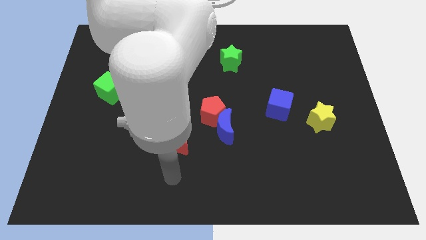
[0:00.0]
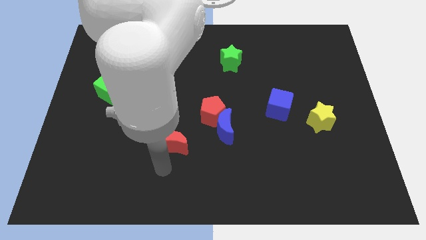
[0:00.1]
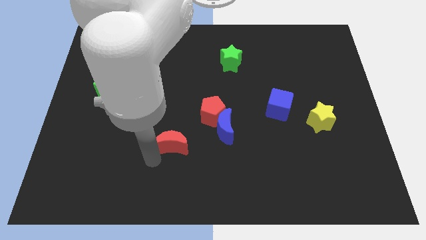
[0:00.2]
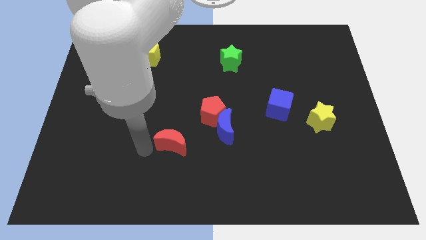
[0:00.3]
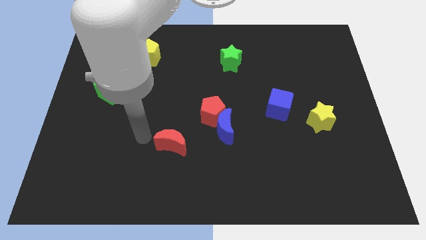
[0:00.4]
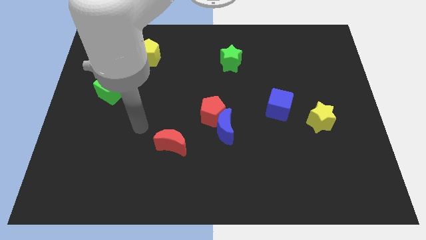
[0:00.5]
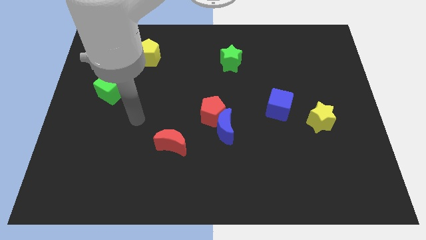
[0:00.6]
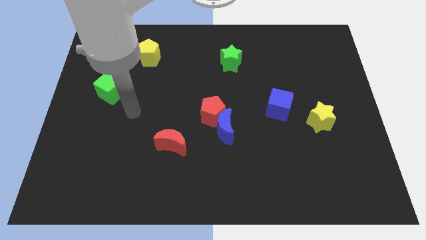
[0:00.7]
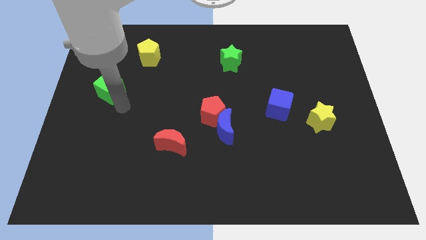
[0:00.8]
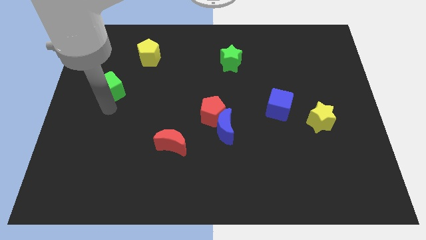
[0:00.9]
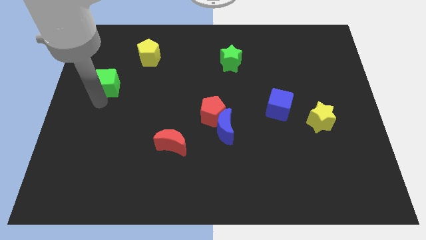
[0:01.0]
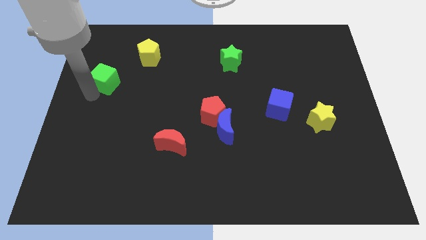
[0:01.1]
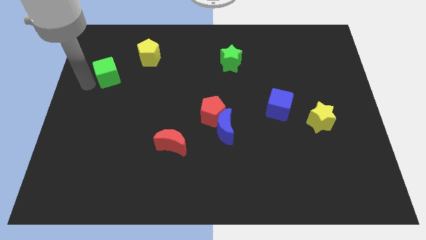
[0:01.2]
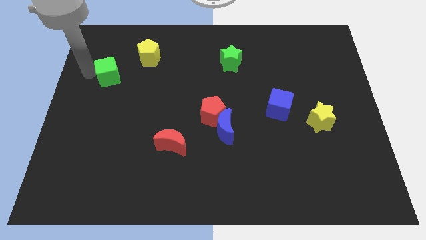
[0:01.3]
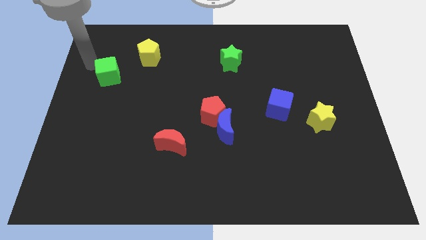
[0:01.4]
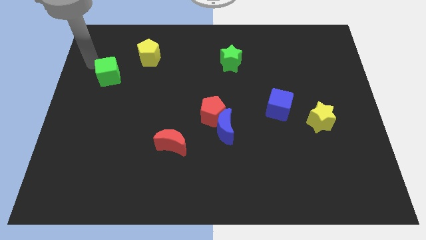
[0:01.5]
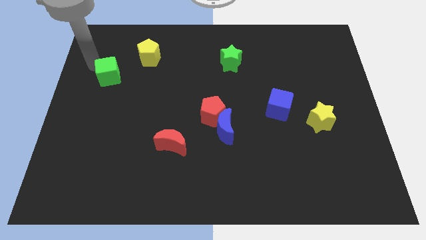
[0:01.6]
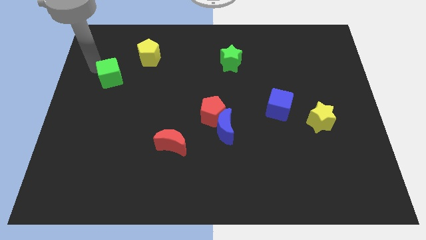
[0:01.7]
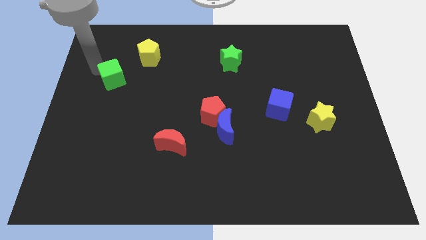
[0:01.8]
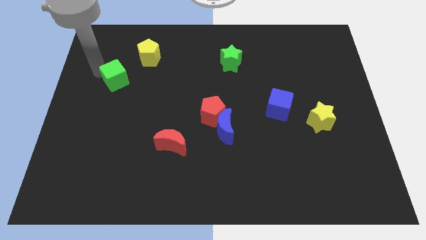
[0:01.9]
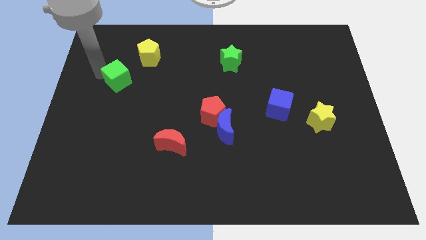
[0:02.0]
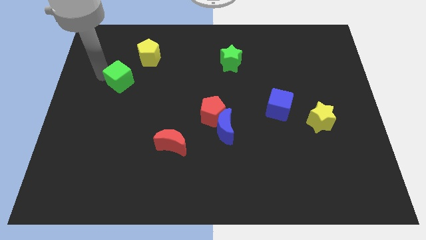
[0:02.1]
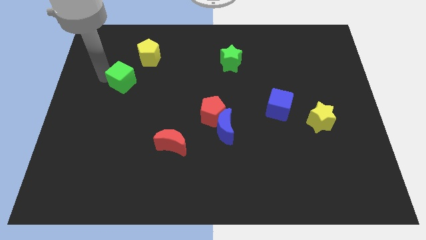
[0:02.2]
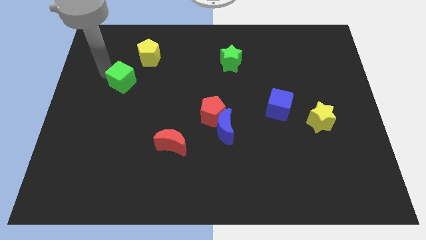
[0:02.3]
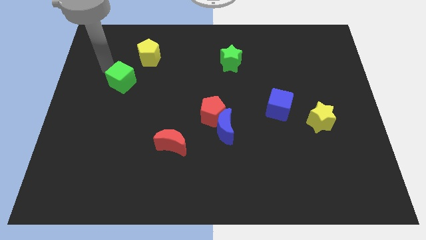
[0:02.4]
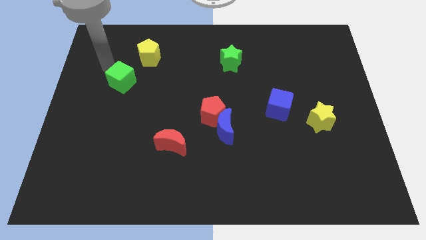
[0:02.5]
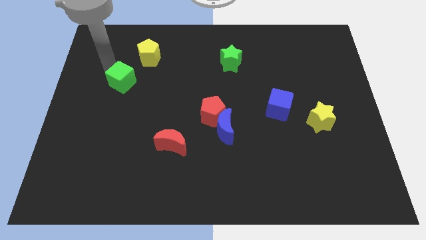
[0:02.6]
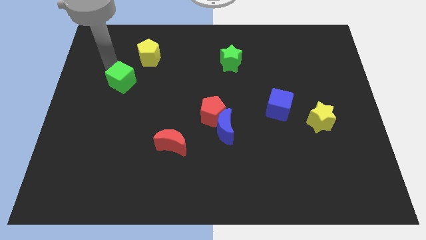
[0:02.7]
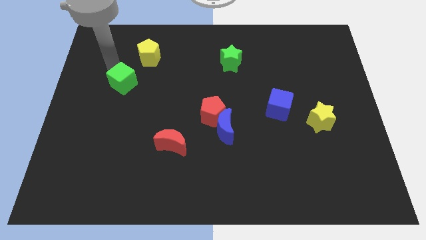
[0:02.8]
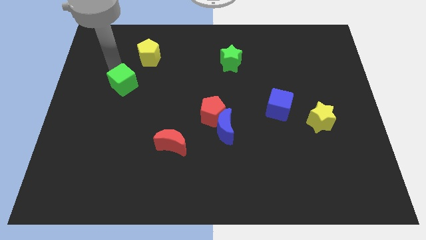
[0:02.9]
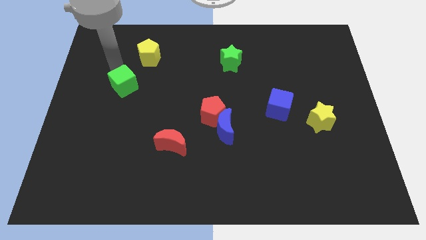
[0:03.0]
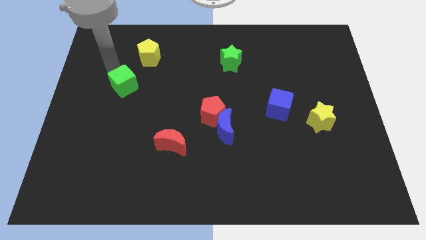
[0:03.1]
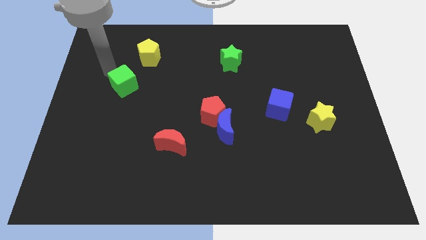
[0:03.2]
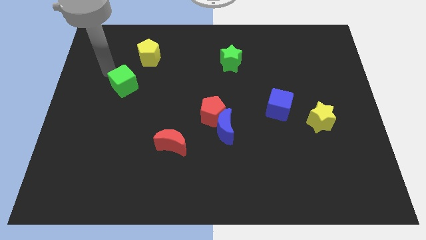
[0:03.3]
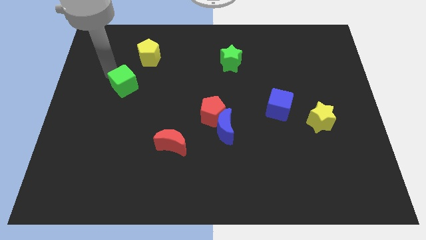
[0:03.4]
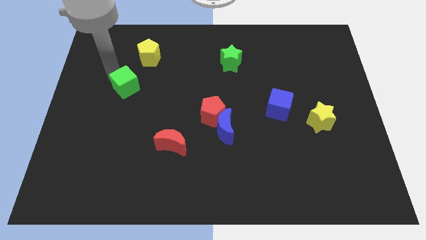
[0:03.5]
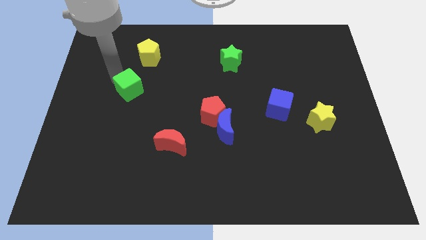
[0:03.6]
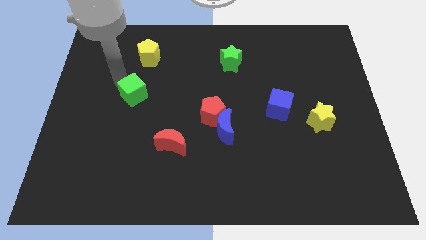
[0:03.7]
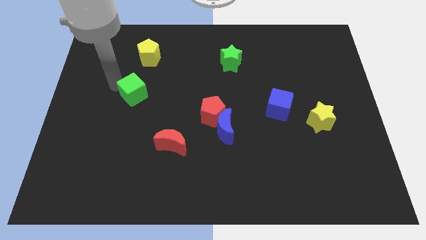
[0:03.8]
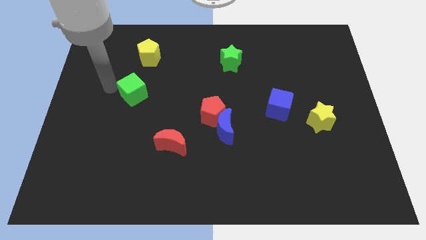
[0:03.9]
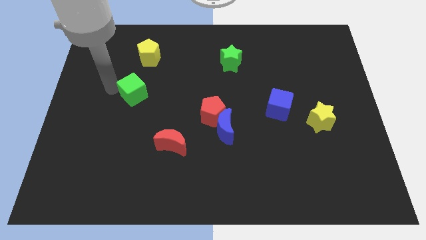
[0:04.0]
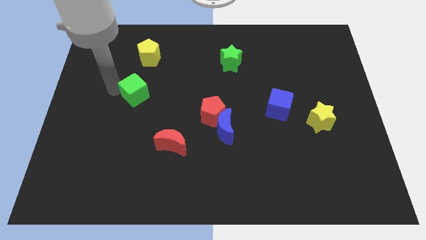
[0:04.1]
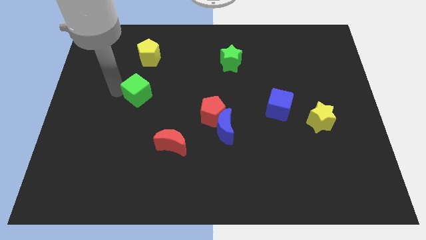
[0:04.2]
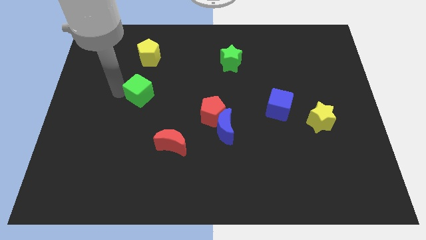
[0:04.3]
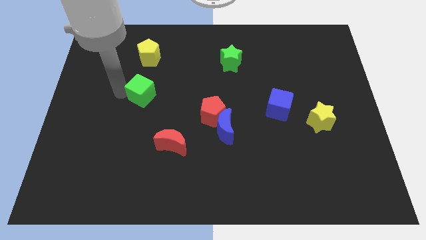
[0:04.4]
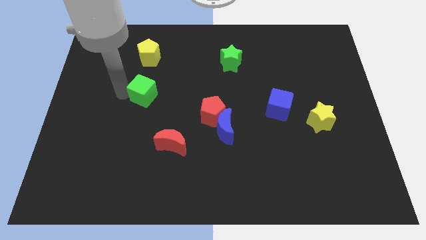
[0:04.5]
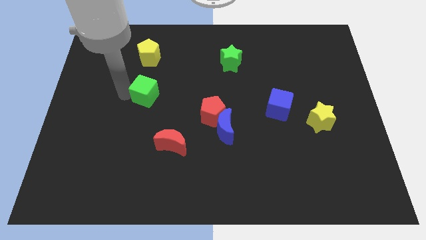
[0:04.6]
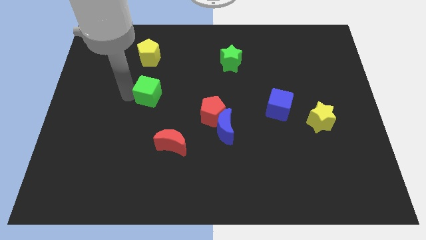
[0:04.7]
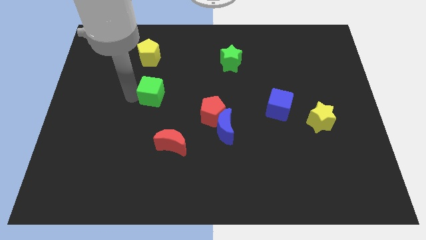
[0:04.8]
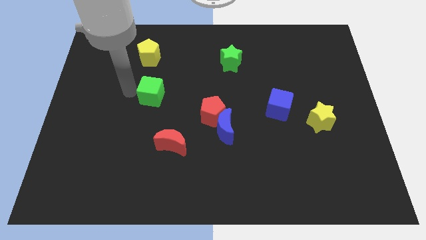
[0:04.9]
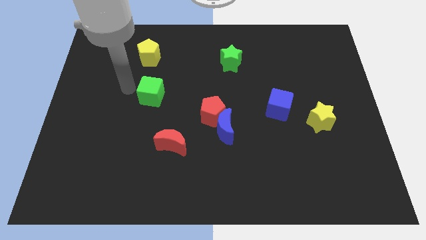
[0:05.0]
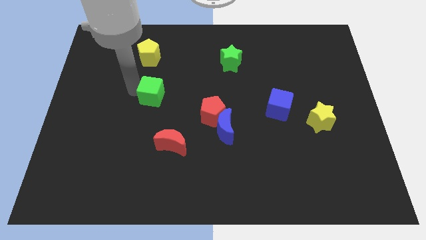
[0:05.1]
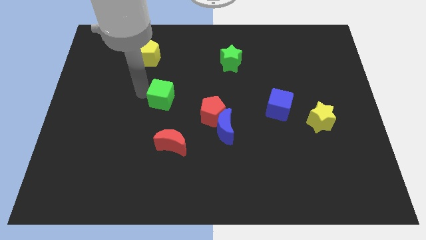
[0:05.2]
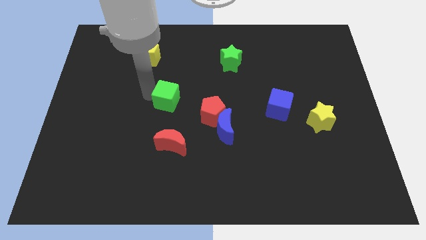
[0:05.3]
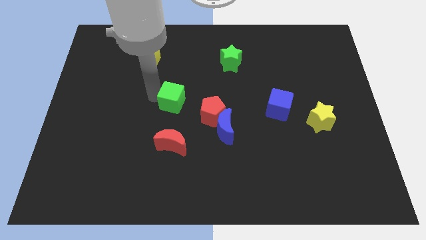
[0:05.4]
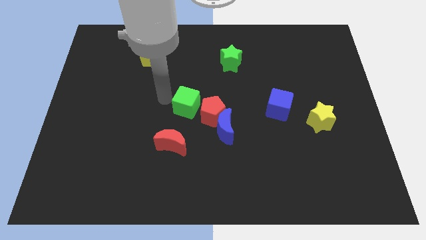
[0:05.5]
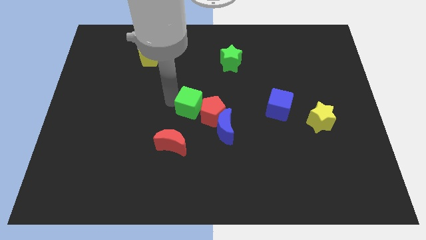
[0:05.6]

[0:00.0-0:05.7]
put the green cube towards the red pentagon
